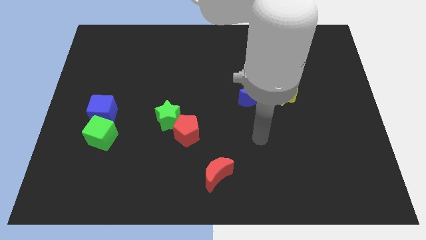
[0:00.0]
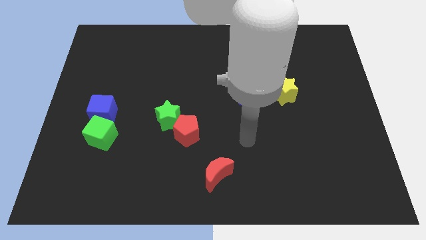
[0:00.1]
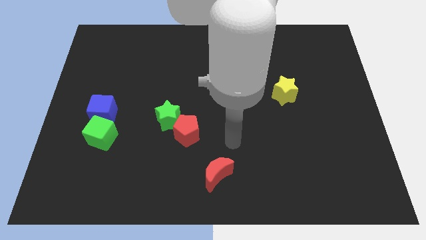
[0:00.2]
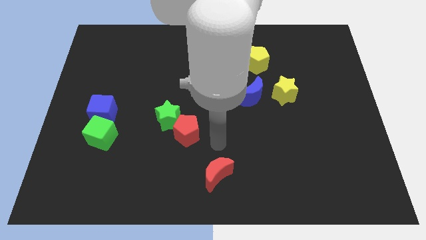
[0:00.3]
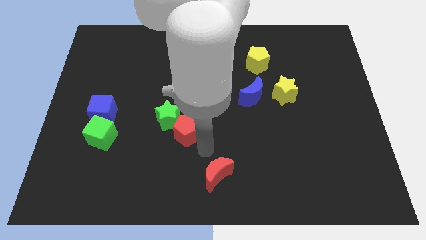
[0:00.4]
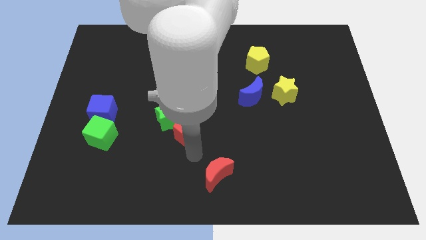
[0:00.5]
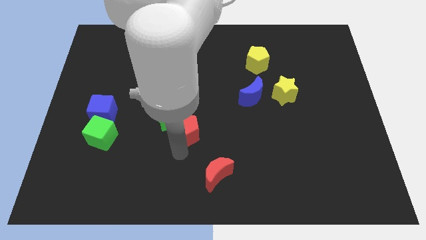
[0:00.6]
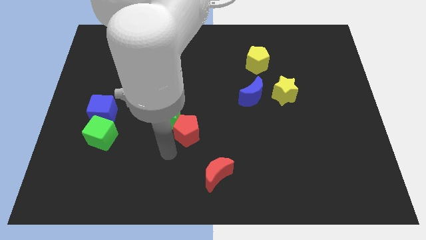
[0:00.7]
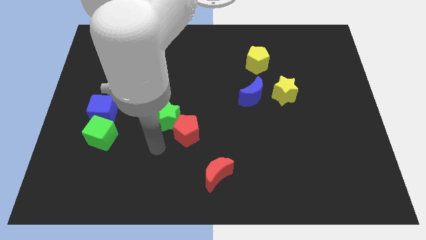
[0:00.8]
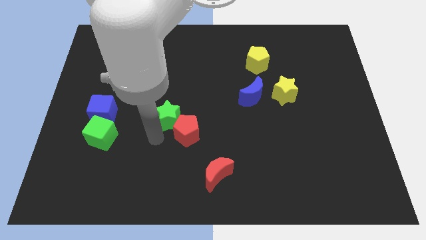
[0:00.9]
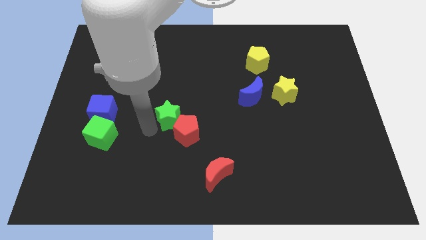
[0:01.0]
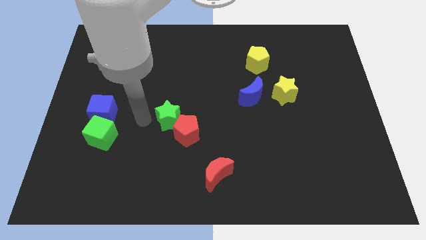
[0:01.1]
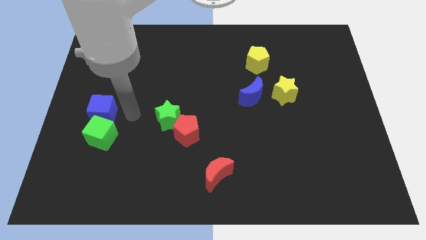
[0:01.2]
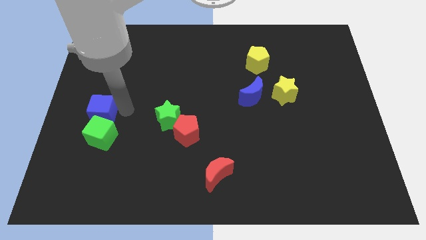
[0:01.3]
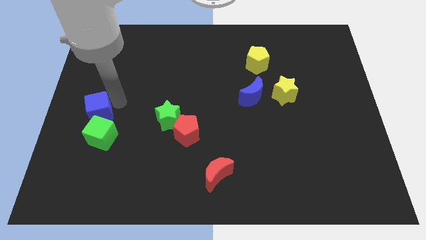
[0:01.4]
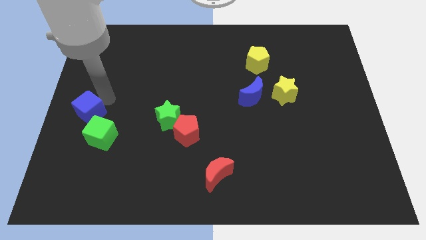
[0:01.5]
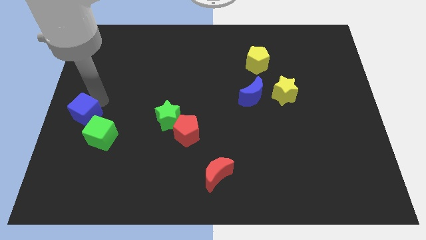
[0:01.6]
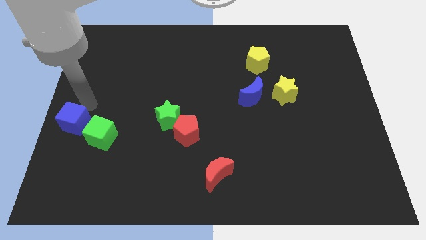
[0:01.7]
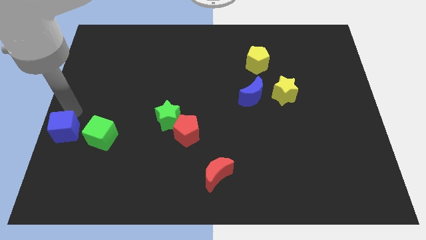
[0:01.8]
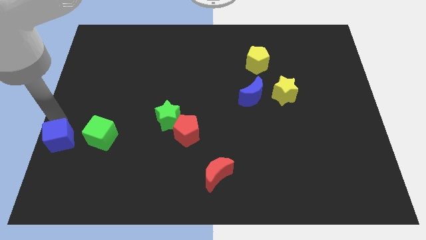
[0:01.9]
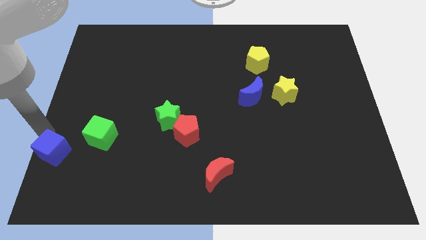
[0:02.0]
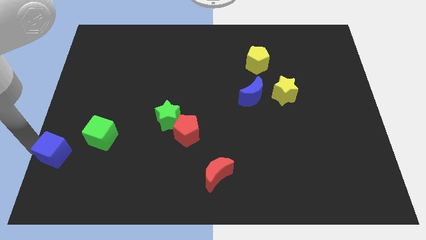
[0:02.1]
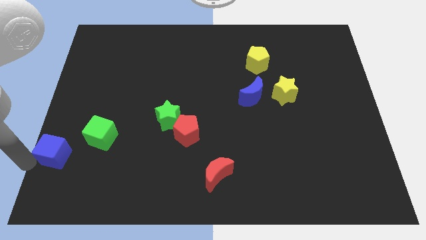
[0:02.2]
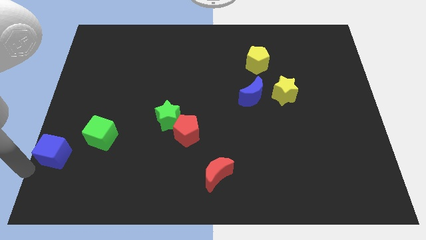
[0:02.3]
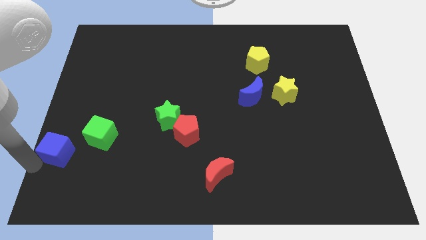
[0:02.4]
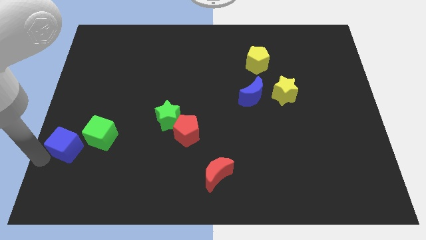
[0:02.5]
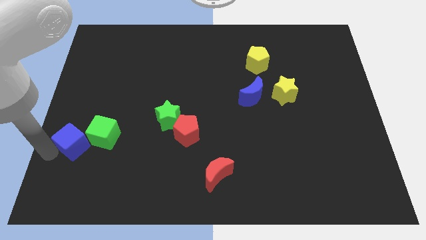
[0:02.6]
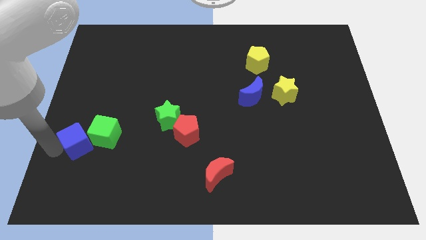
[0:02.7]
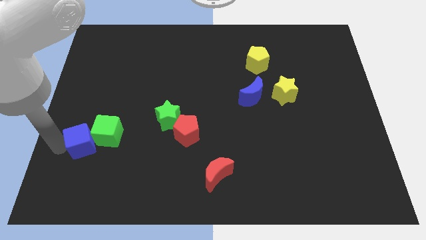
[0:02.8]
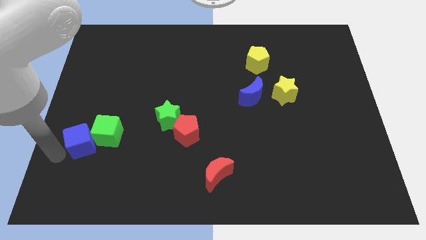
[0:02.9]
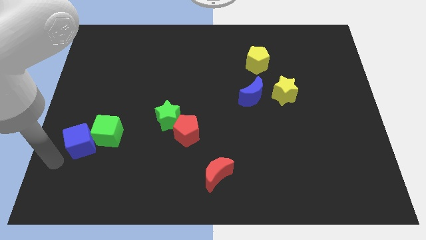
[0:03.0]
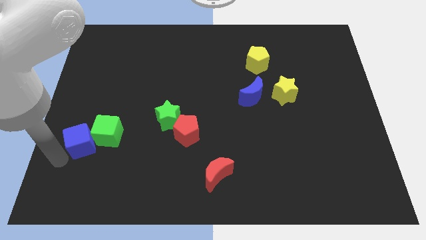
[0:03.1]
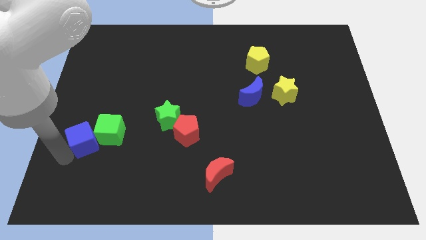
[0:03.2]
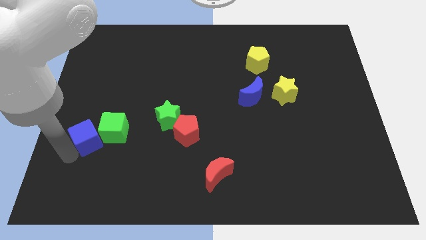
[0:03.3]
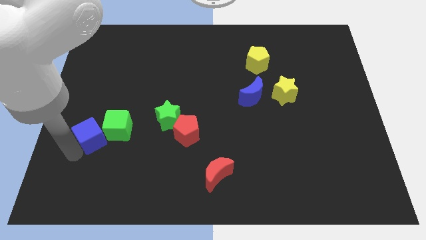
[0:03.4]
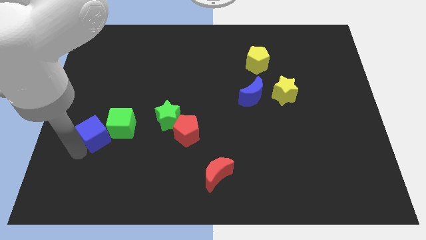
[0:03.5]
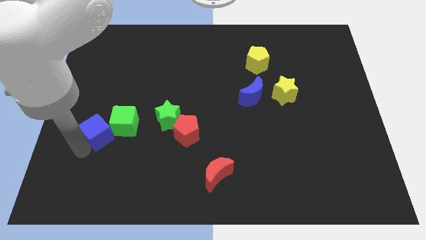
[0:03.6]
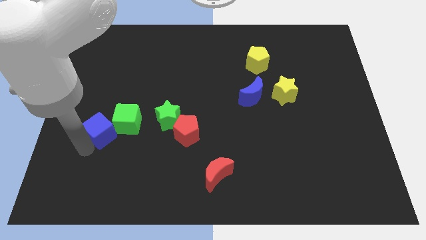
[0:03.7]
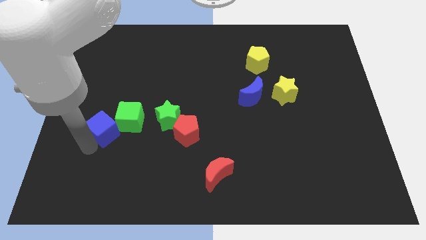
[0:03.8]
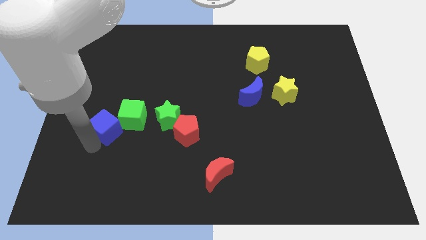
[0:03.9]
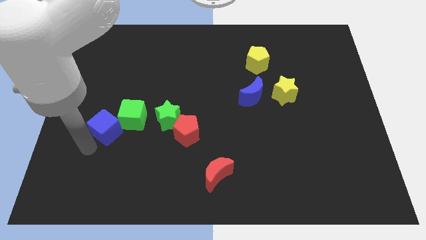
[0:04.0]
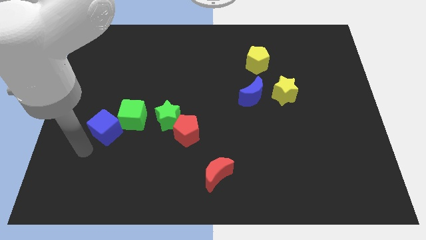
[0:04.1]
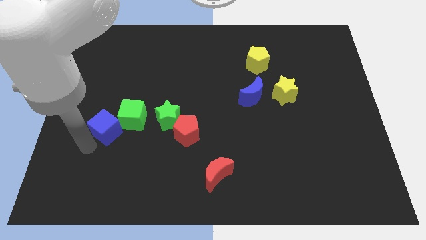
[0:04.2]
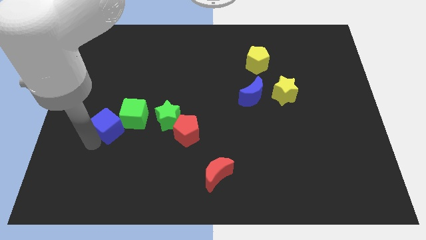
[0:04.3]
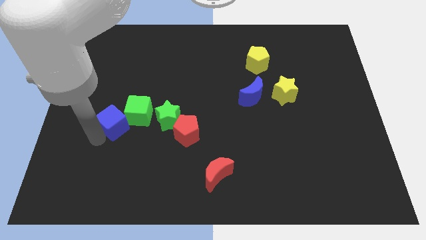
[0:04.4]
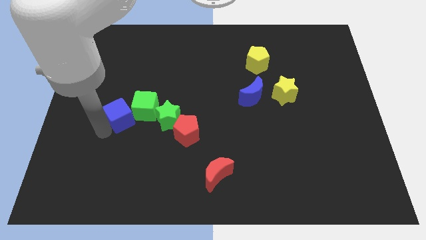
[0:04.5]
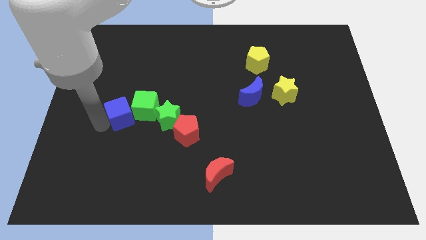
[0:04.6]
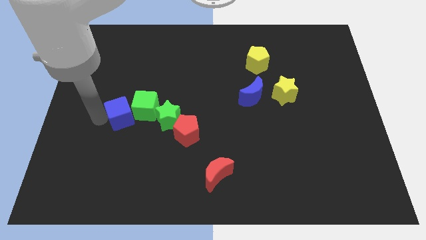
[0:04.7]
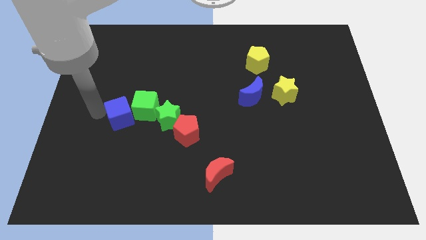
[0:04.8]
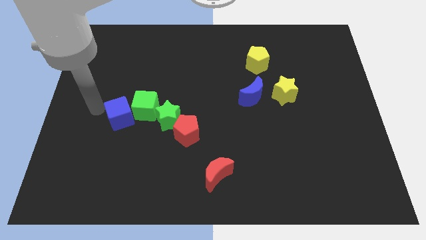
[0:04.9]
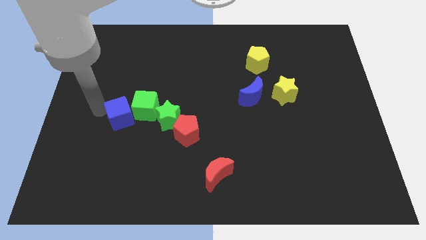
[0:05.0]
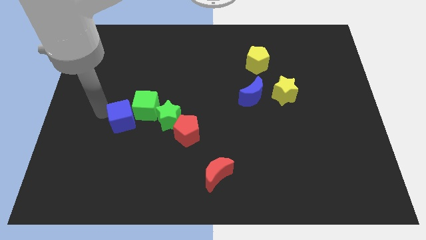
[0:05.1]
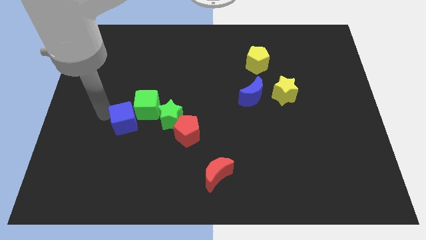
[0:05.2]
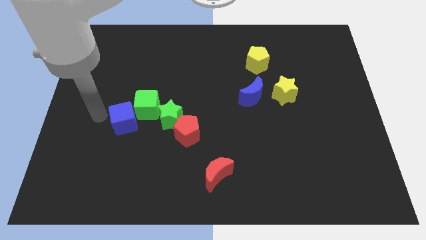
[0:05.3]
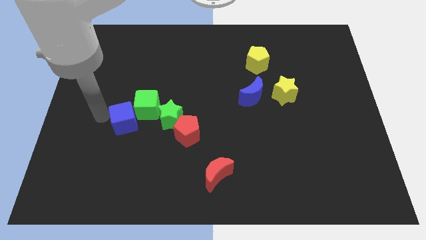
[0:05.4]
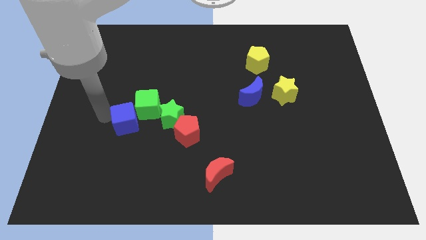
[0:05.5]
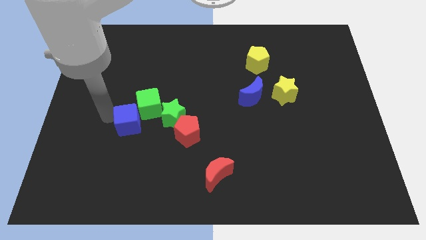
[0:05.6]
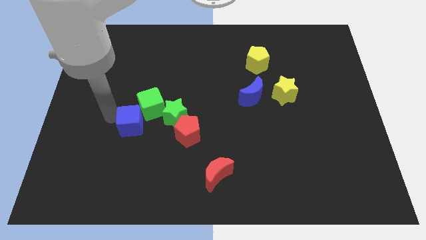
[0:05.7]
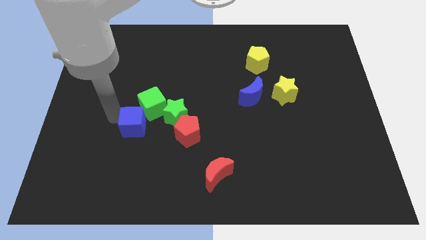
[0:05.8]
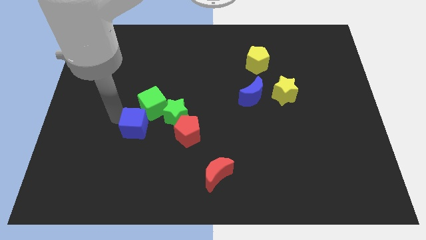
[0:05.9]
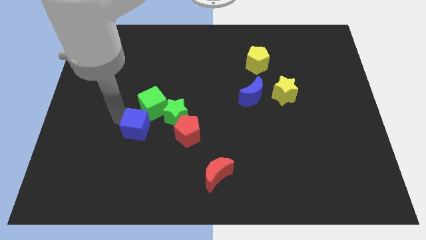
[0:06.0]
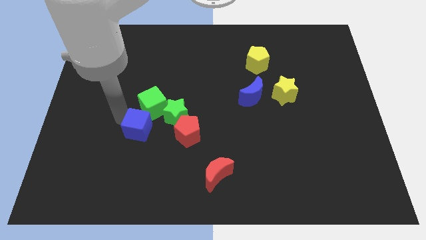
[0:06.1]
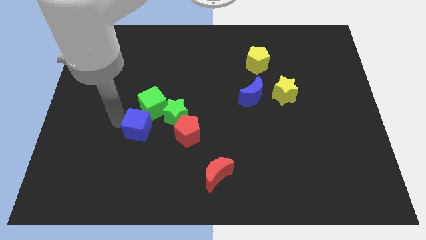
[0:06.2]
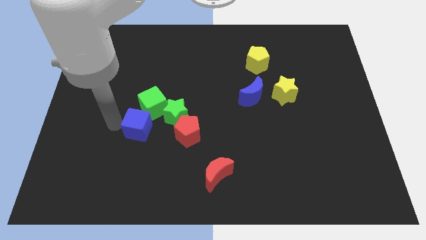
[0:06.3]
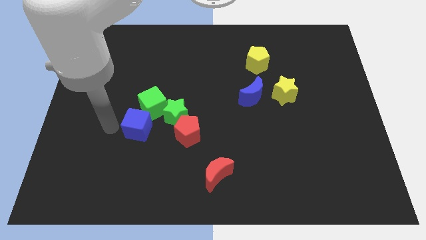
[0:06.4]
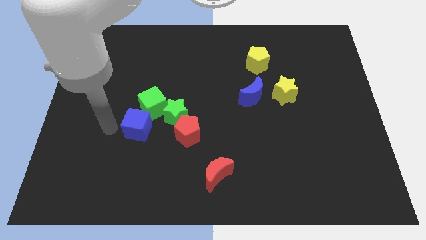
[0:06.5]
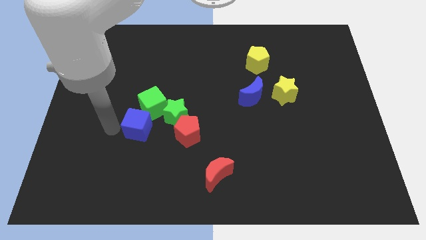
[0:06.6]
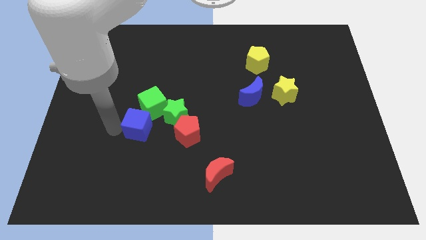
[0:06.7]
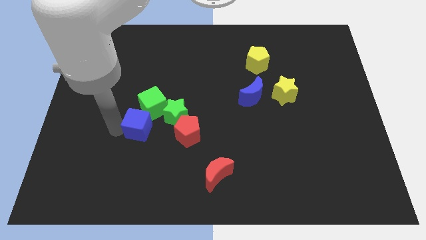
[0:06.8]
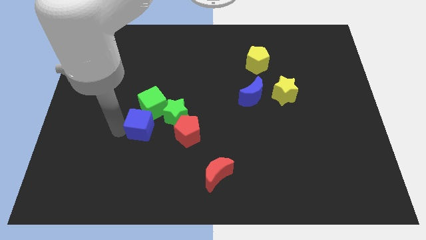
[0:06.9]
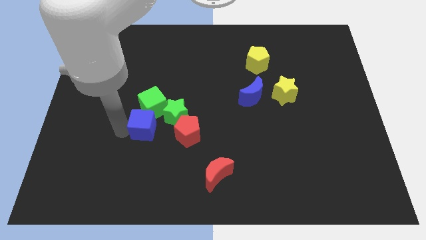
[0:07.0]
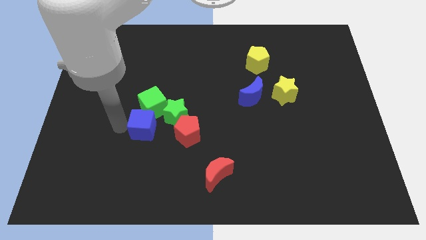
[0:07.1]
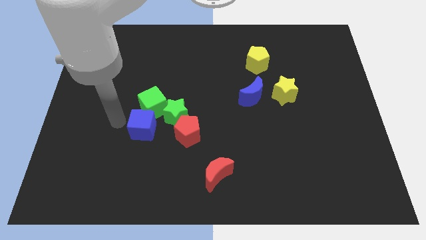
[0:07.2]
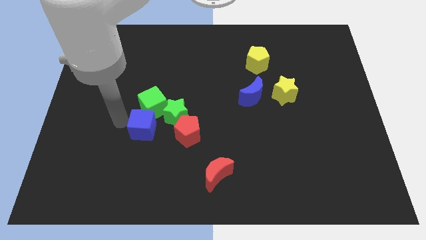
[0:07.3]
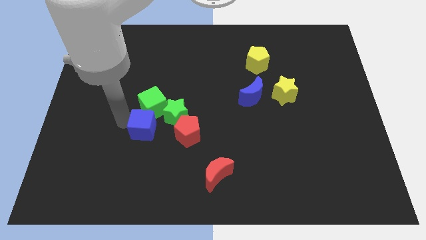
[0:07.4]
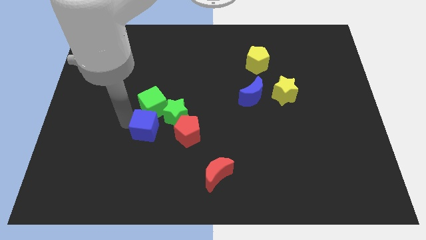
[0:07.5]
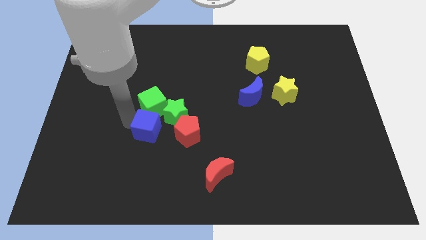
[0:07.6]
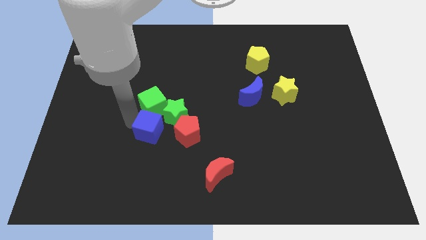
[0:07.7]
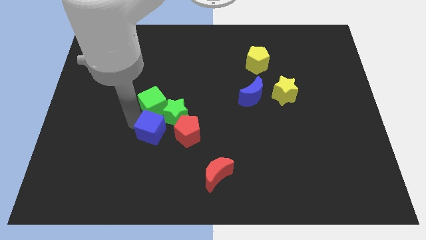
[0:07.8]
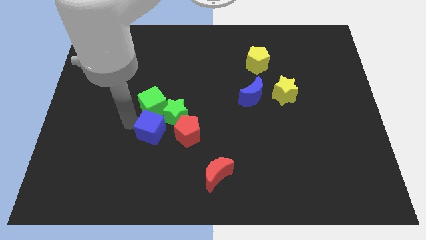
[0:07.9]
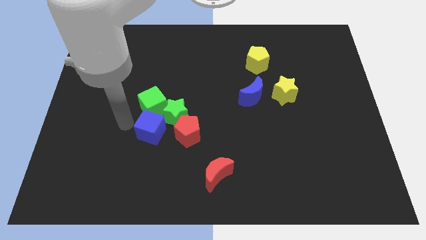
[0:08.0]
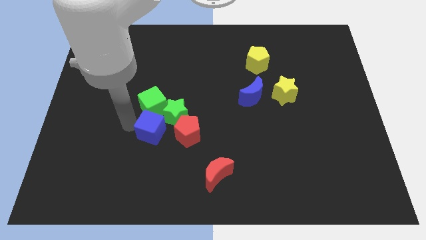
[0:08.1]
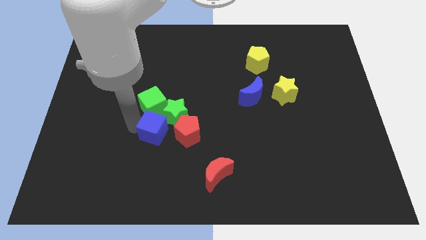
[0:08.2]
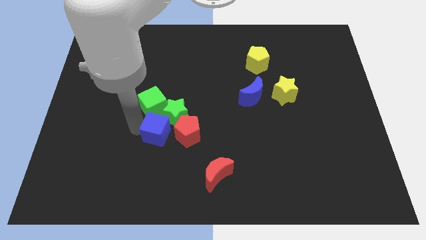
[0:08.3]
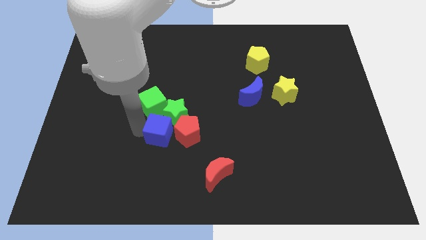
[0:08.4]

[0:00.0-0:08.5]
push the blue cube to the red pentagon
